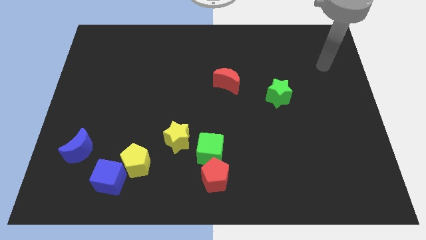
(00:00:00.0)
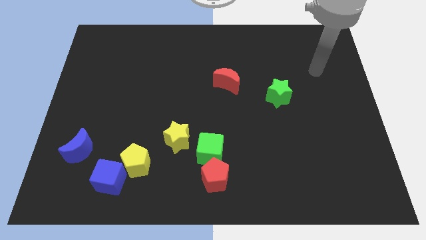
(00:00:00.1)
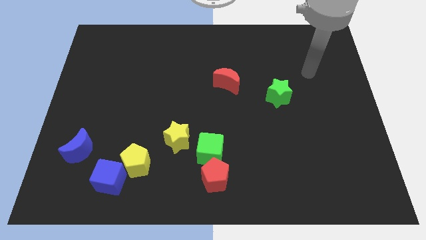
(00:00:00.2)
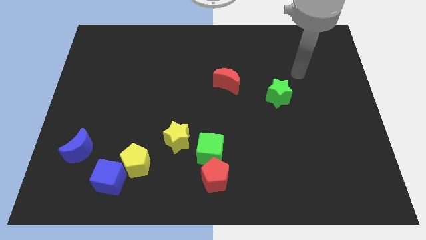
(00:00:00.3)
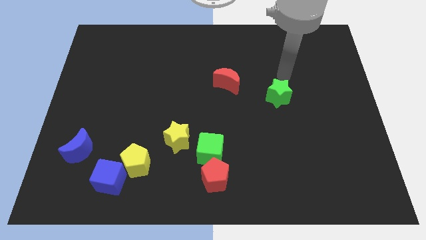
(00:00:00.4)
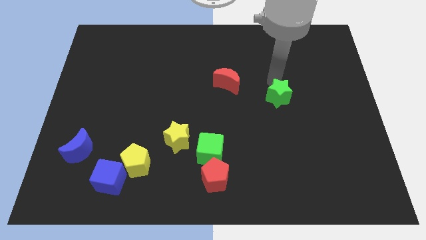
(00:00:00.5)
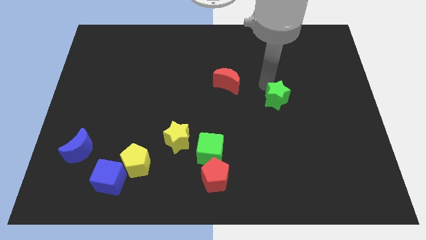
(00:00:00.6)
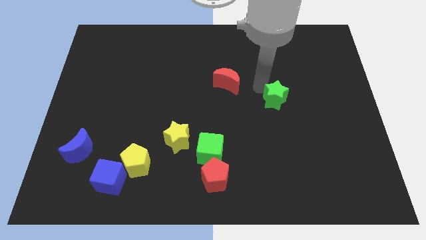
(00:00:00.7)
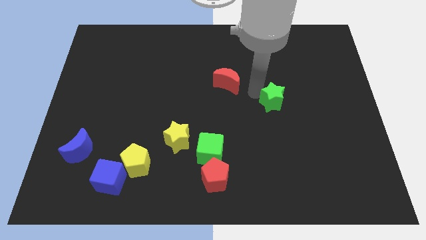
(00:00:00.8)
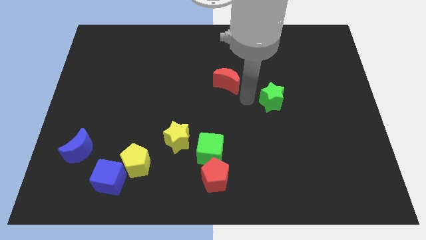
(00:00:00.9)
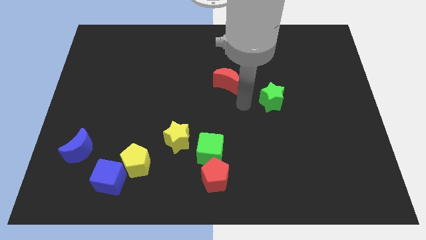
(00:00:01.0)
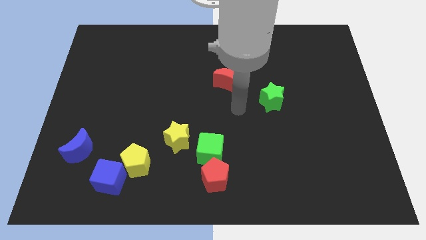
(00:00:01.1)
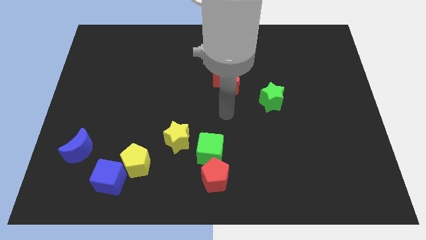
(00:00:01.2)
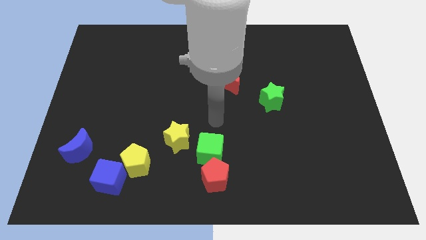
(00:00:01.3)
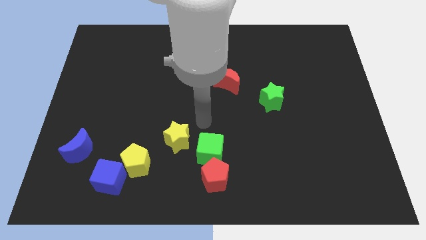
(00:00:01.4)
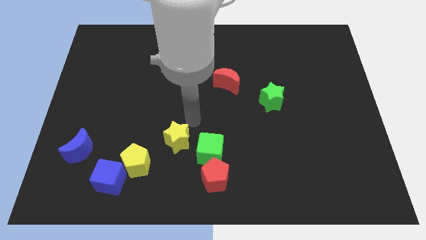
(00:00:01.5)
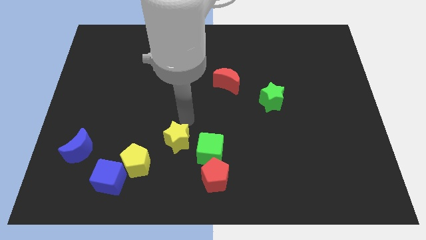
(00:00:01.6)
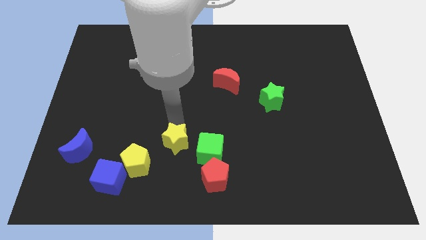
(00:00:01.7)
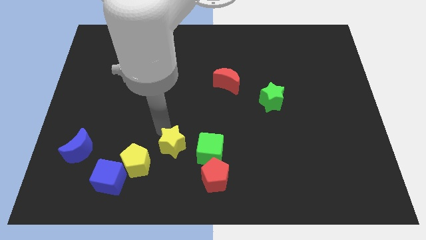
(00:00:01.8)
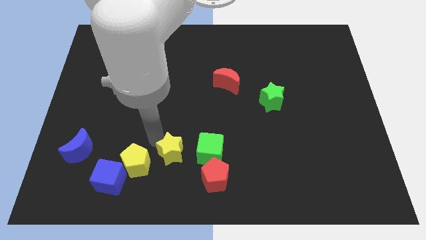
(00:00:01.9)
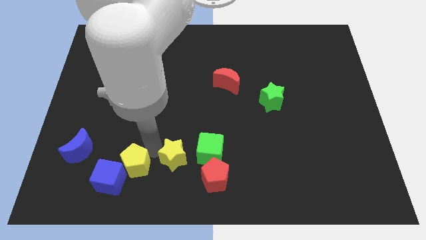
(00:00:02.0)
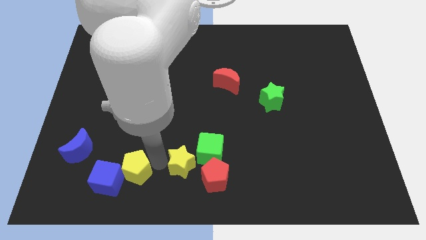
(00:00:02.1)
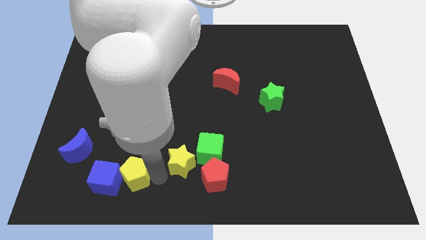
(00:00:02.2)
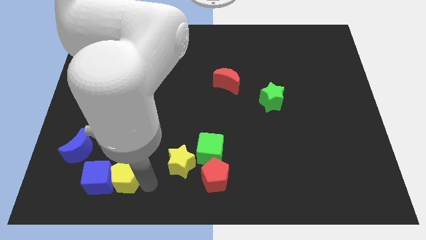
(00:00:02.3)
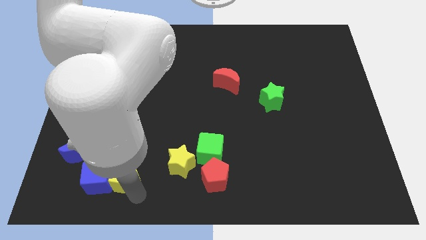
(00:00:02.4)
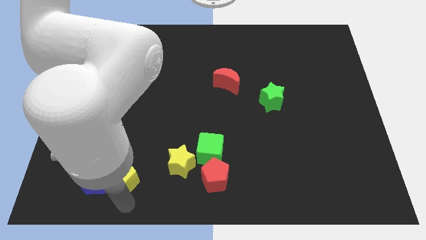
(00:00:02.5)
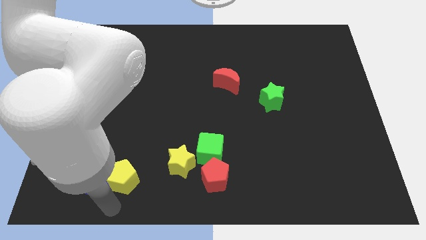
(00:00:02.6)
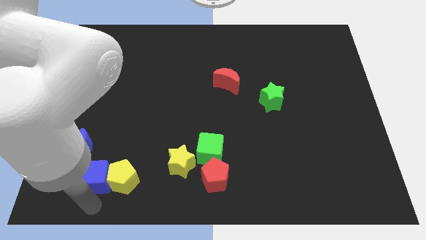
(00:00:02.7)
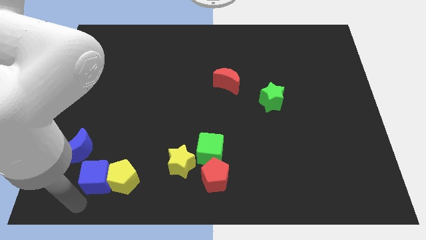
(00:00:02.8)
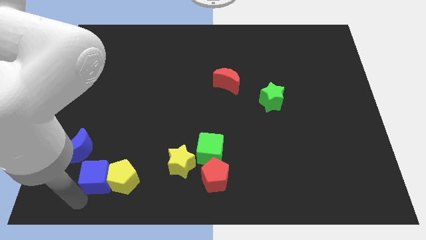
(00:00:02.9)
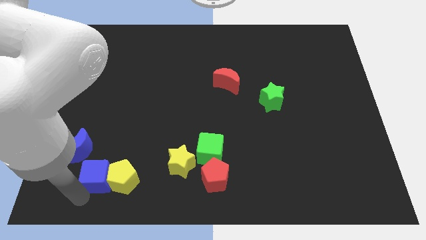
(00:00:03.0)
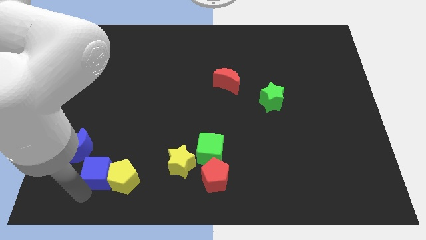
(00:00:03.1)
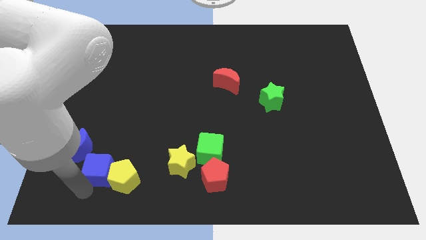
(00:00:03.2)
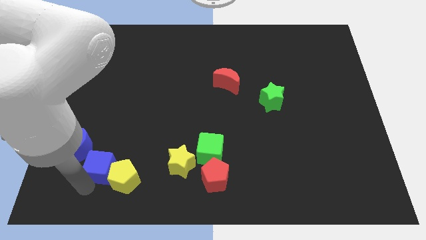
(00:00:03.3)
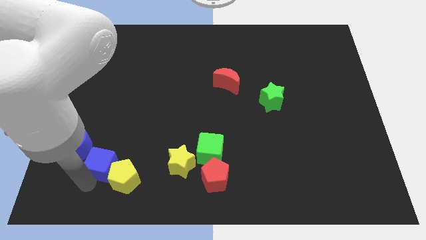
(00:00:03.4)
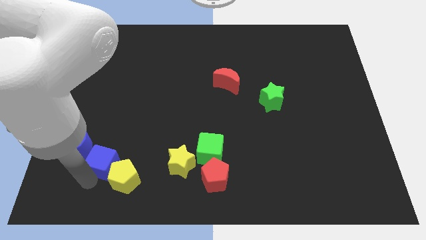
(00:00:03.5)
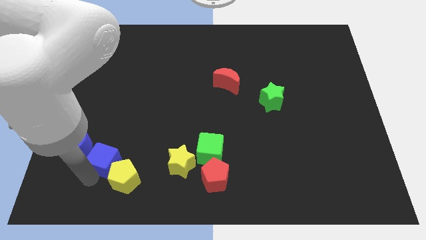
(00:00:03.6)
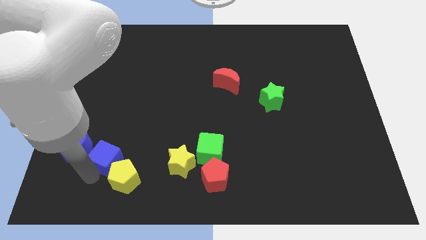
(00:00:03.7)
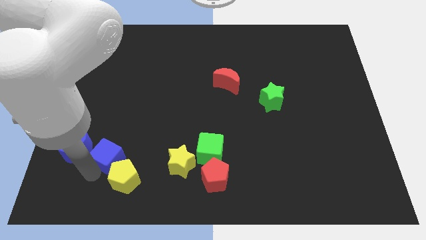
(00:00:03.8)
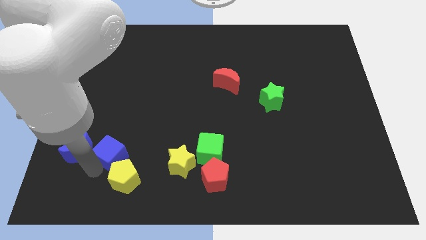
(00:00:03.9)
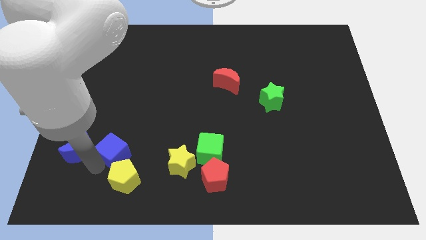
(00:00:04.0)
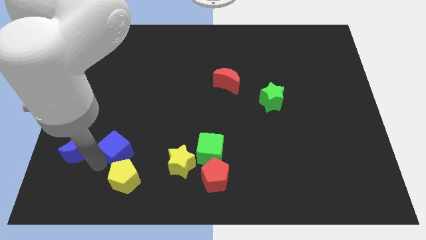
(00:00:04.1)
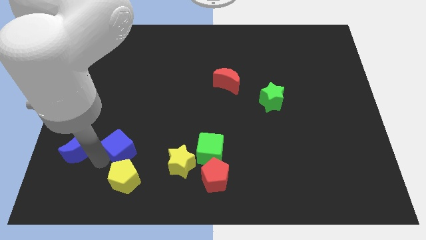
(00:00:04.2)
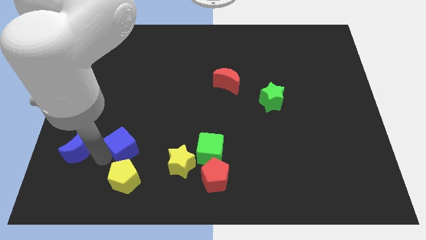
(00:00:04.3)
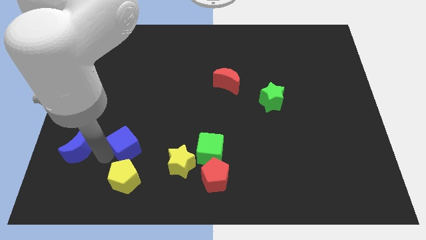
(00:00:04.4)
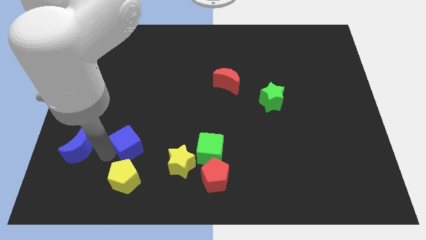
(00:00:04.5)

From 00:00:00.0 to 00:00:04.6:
slightly push the blue cube up and to the right diagonally

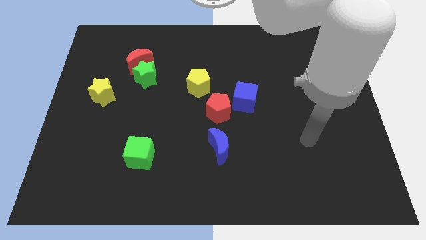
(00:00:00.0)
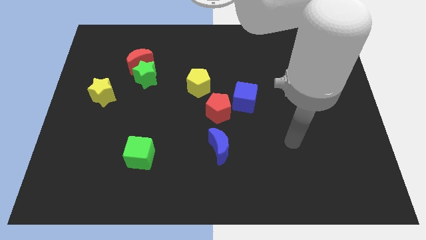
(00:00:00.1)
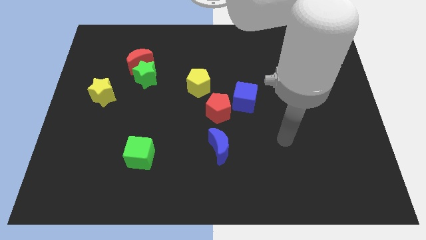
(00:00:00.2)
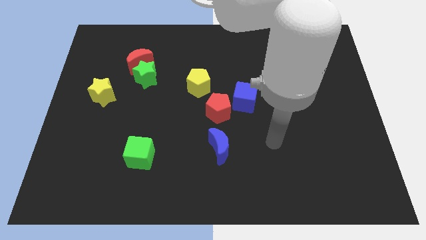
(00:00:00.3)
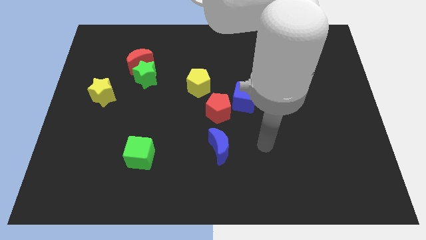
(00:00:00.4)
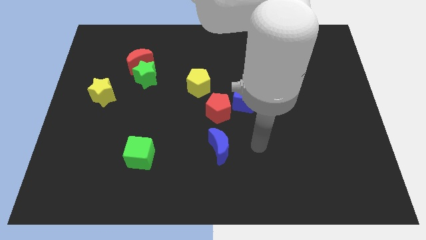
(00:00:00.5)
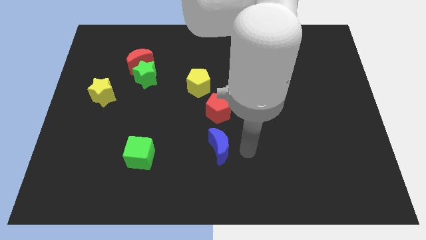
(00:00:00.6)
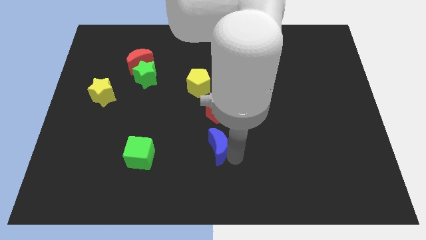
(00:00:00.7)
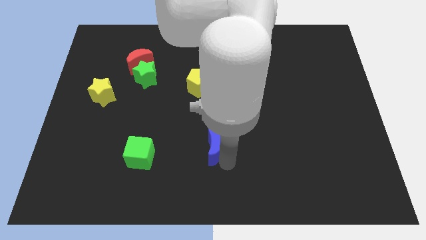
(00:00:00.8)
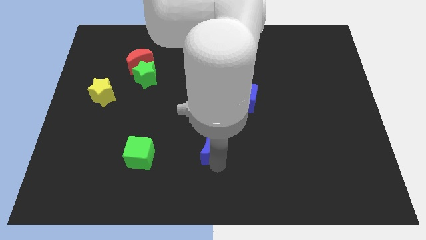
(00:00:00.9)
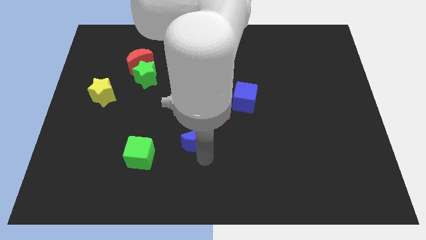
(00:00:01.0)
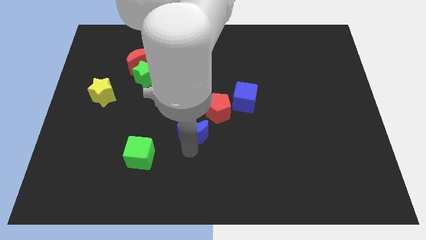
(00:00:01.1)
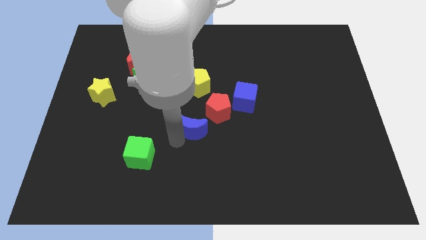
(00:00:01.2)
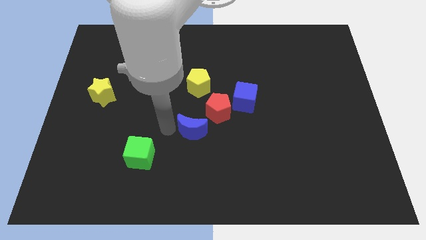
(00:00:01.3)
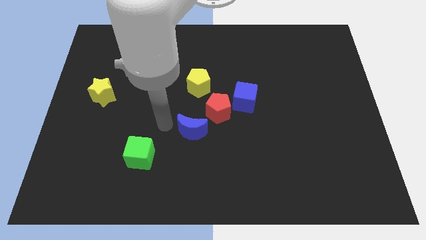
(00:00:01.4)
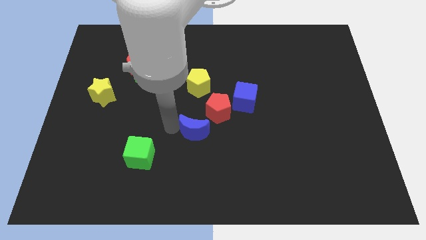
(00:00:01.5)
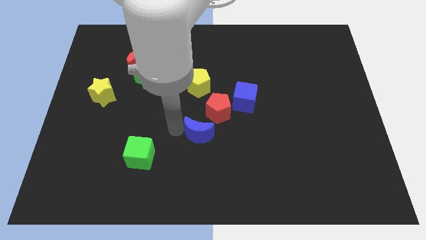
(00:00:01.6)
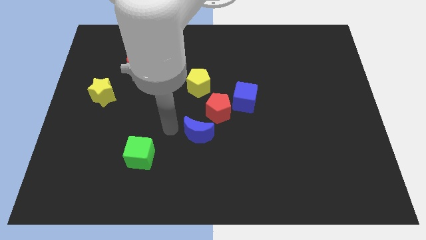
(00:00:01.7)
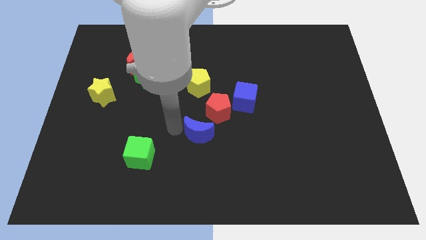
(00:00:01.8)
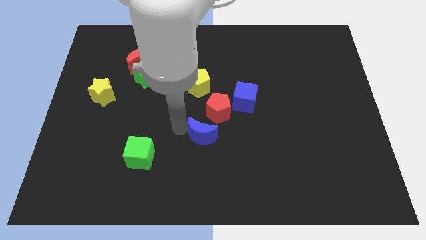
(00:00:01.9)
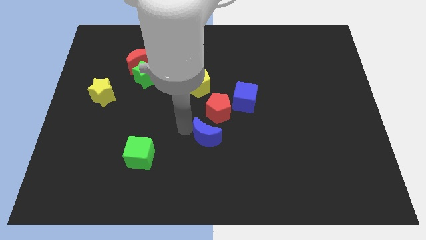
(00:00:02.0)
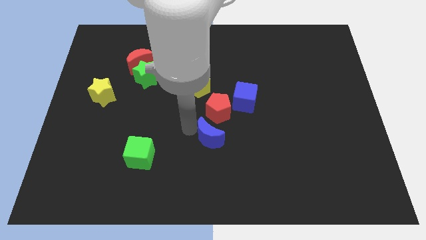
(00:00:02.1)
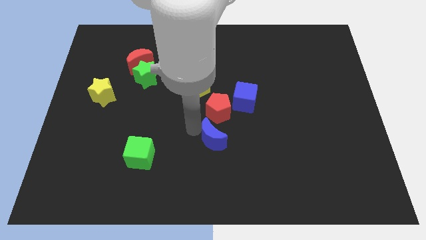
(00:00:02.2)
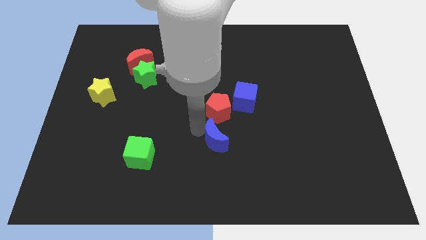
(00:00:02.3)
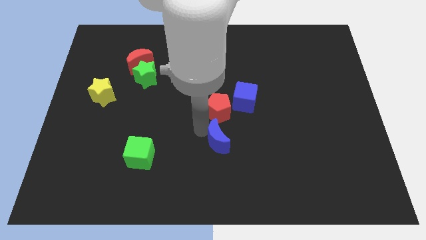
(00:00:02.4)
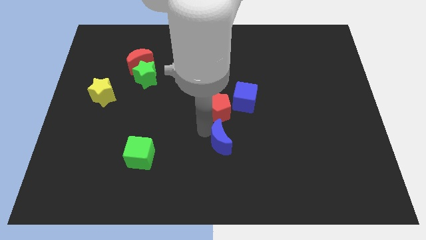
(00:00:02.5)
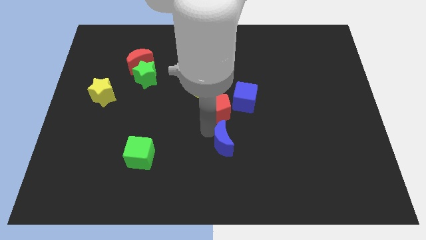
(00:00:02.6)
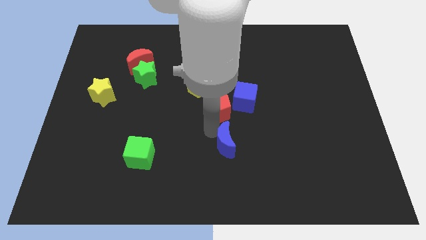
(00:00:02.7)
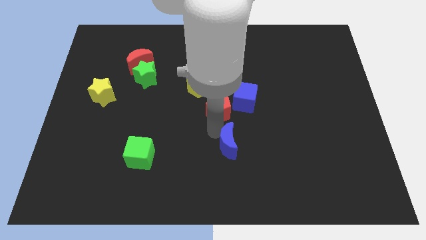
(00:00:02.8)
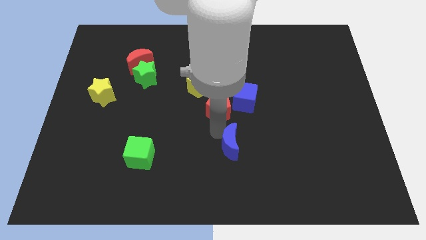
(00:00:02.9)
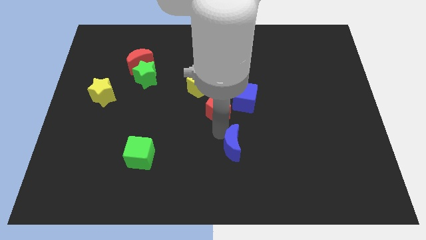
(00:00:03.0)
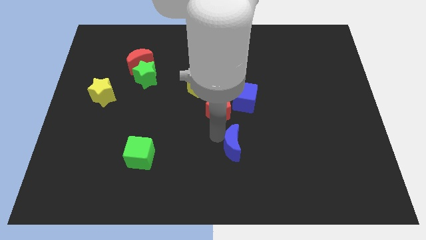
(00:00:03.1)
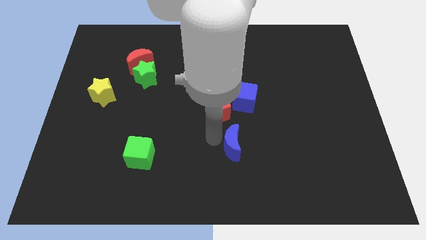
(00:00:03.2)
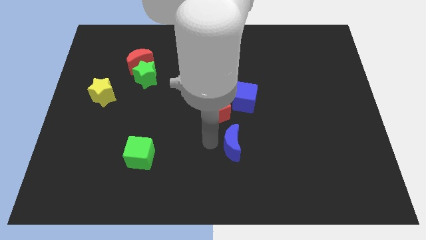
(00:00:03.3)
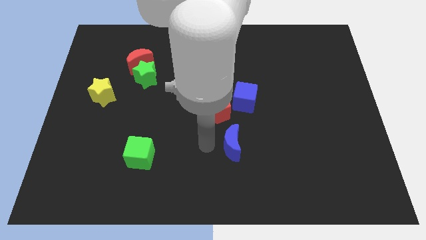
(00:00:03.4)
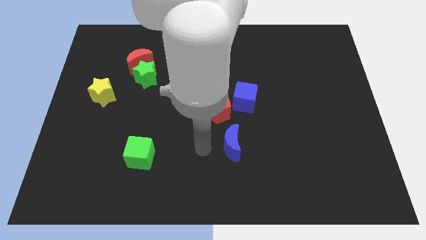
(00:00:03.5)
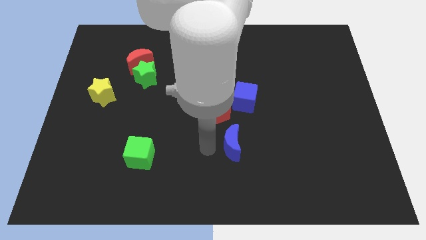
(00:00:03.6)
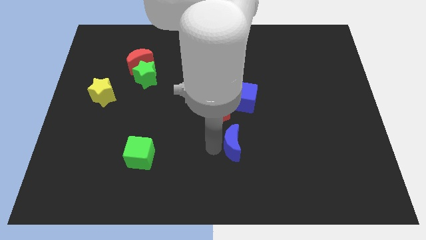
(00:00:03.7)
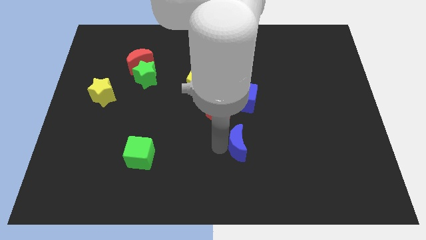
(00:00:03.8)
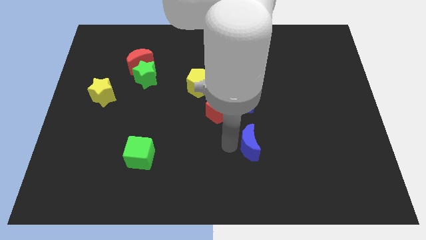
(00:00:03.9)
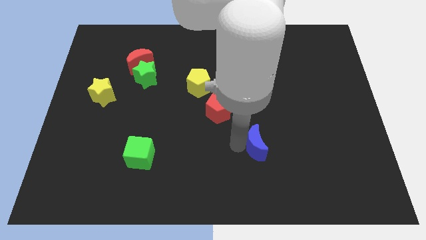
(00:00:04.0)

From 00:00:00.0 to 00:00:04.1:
slide the blue moon slightly right
